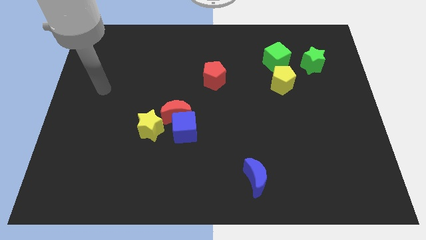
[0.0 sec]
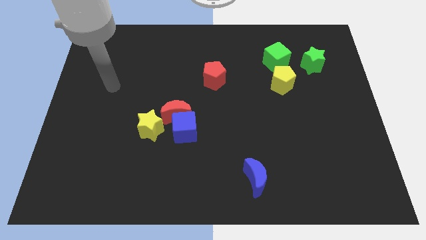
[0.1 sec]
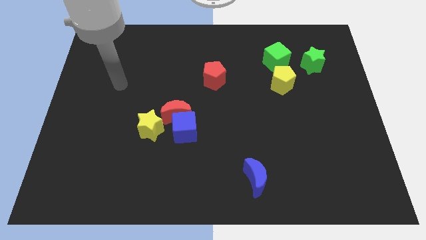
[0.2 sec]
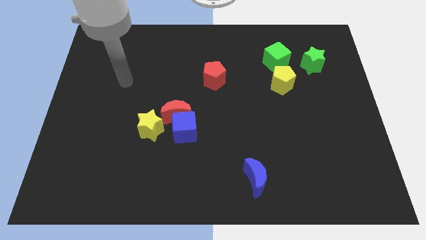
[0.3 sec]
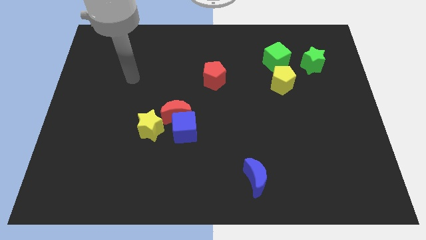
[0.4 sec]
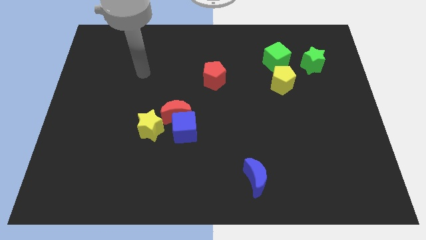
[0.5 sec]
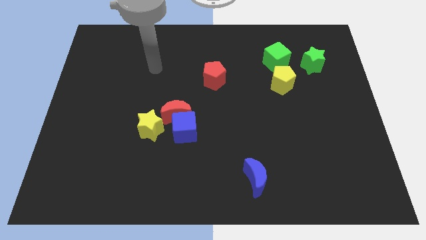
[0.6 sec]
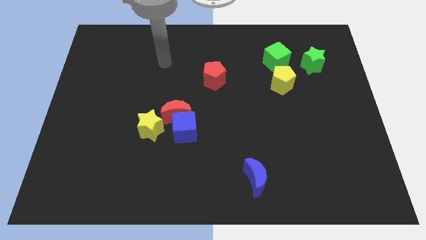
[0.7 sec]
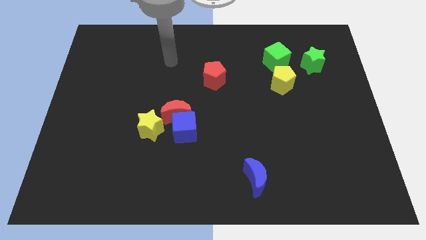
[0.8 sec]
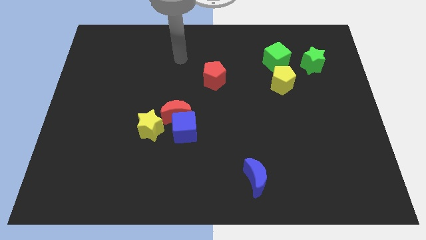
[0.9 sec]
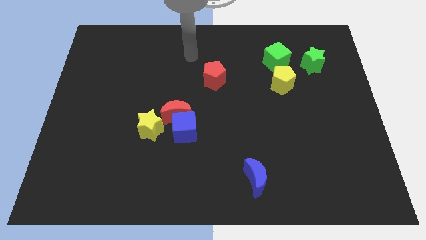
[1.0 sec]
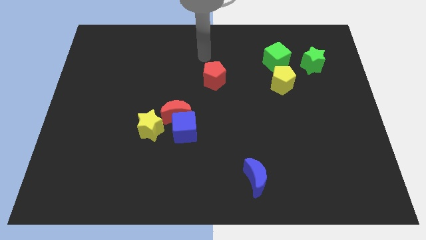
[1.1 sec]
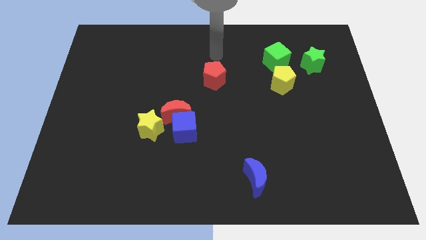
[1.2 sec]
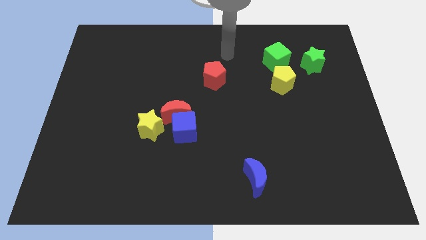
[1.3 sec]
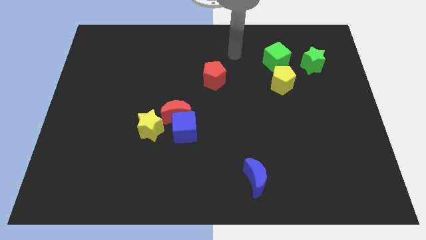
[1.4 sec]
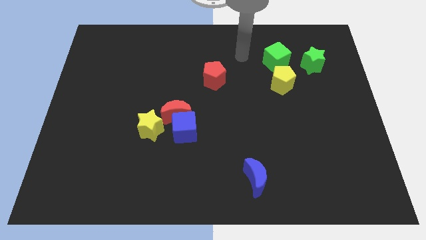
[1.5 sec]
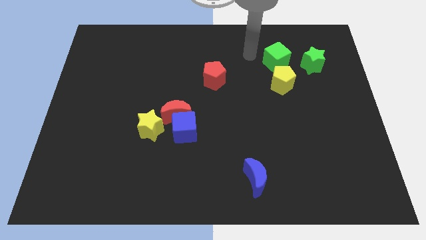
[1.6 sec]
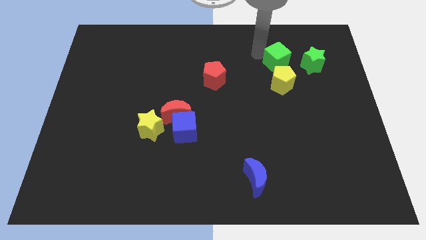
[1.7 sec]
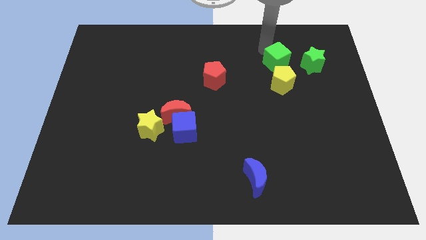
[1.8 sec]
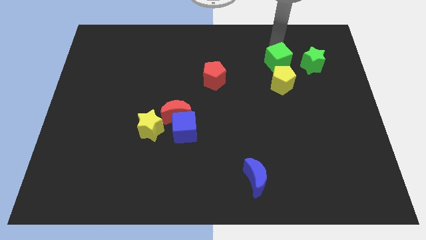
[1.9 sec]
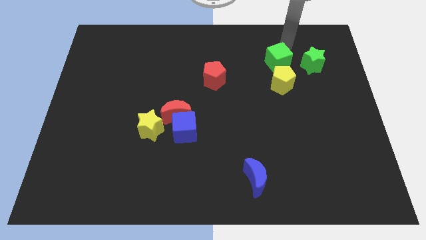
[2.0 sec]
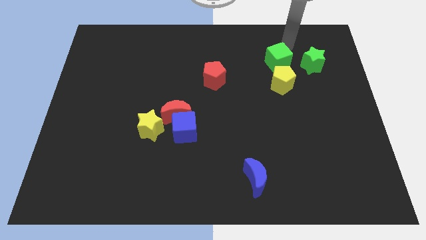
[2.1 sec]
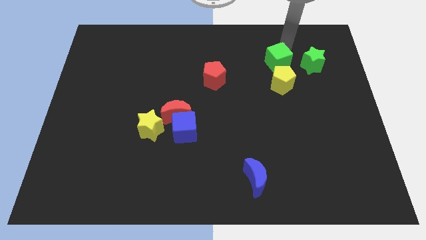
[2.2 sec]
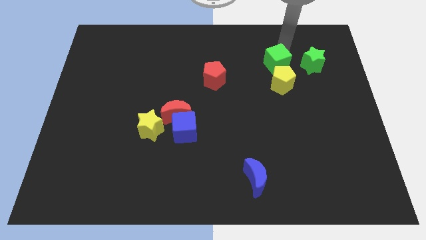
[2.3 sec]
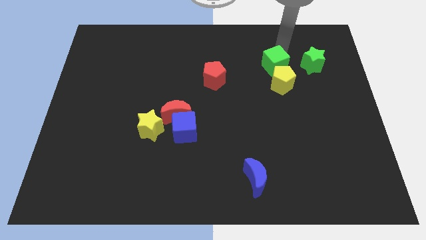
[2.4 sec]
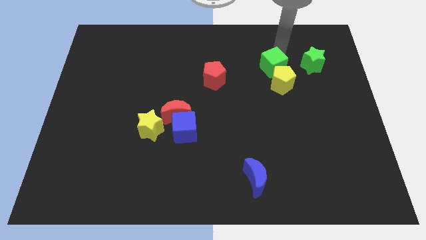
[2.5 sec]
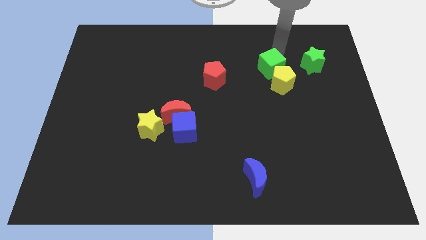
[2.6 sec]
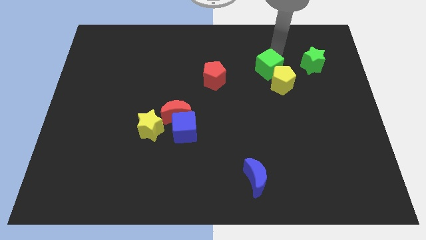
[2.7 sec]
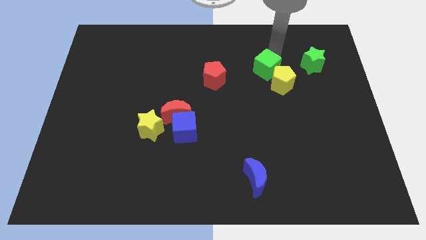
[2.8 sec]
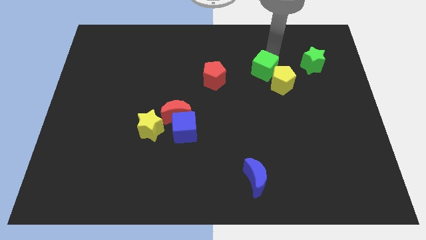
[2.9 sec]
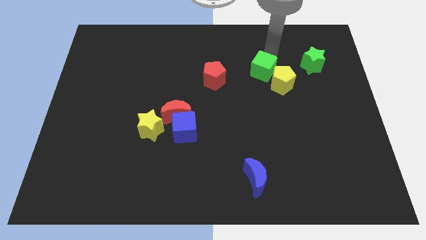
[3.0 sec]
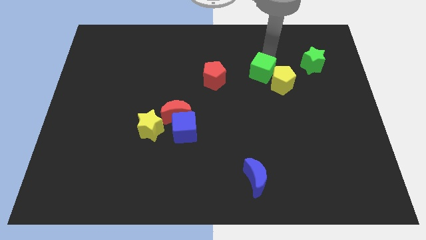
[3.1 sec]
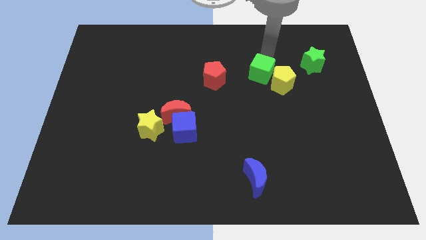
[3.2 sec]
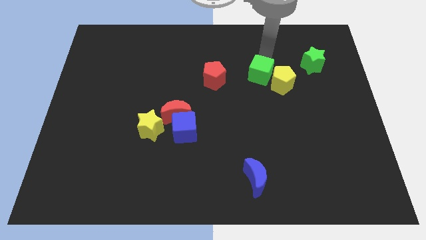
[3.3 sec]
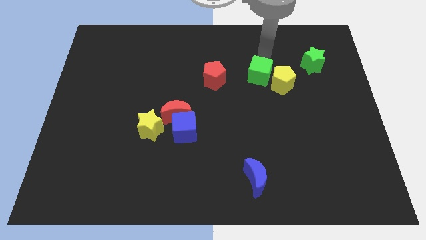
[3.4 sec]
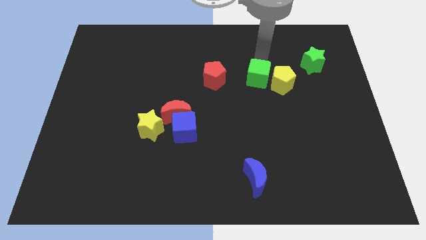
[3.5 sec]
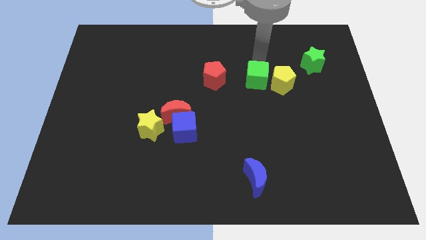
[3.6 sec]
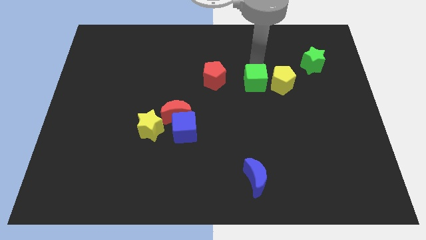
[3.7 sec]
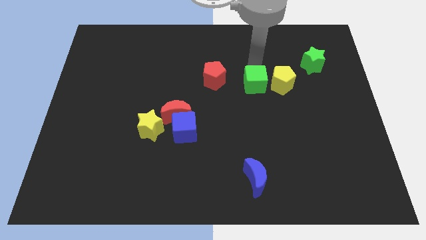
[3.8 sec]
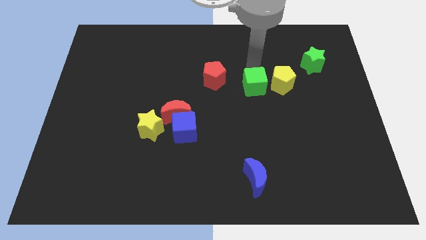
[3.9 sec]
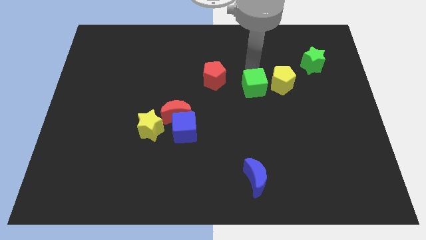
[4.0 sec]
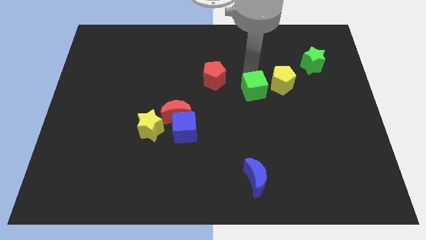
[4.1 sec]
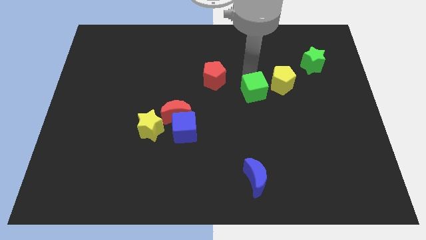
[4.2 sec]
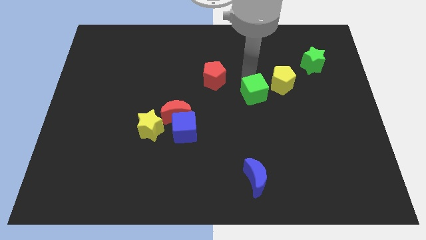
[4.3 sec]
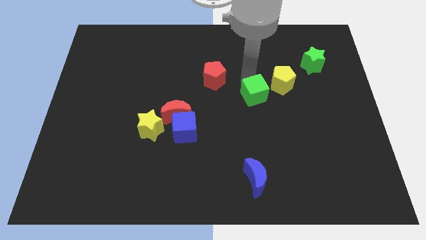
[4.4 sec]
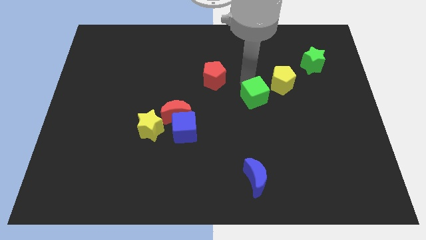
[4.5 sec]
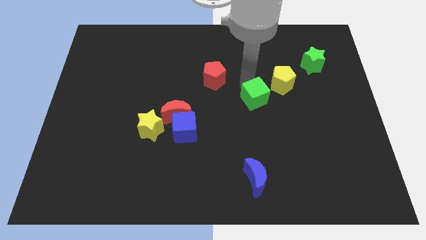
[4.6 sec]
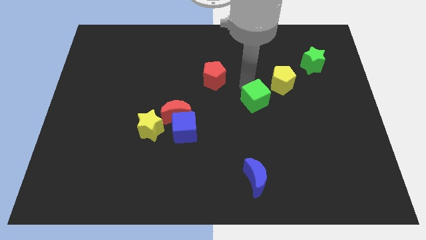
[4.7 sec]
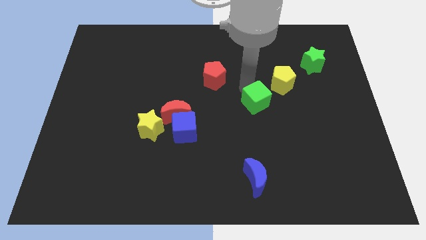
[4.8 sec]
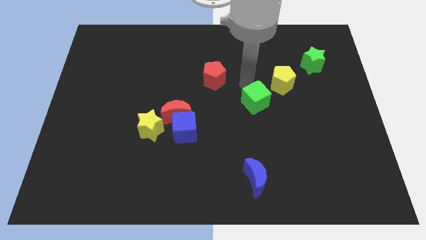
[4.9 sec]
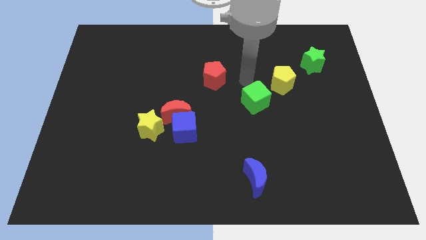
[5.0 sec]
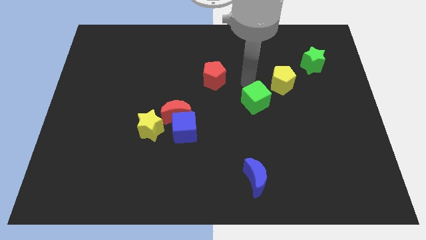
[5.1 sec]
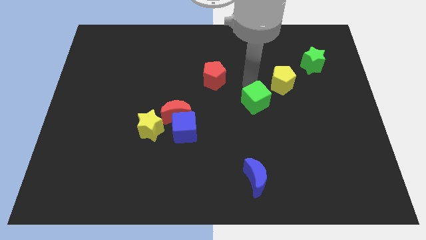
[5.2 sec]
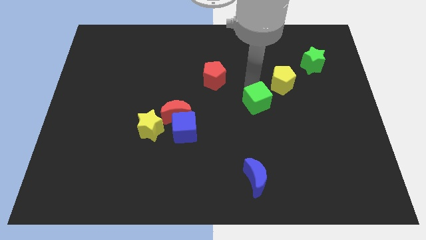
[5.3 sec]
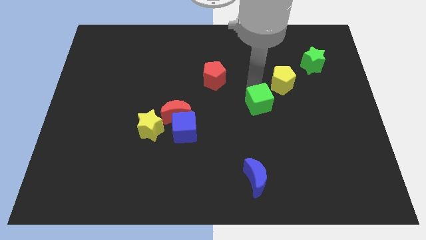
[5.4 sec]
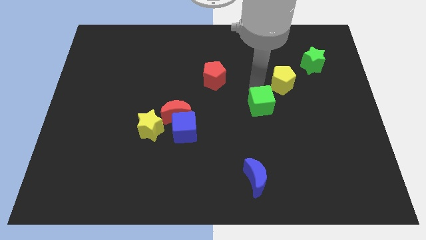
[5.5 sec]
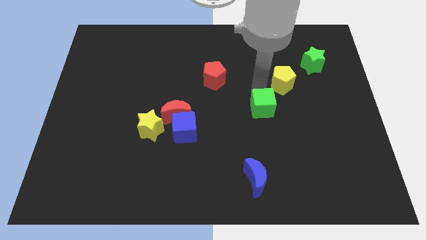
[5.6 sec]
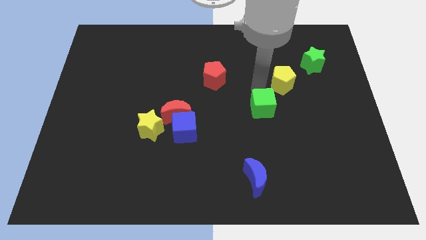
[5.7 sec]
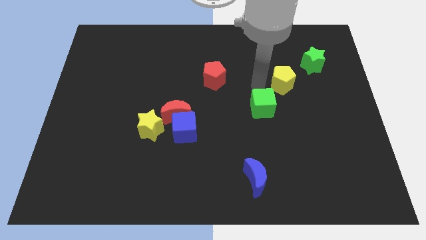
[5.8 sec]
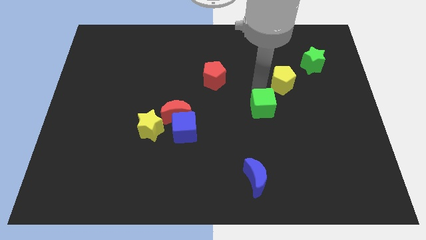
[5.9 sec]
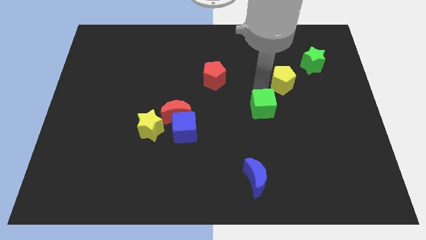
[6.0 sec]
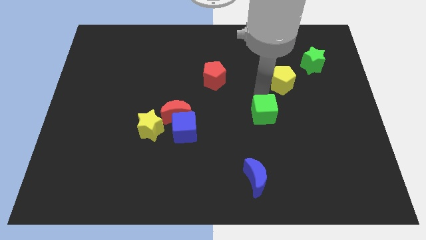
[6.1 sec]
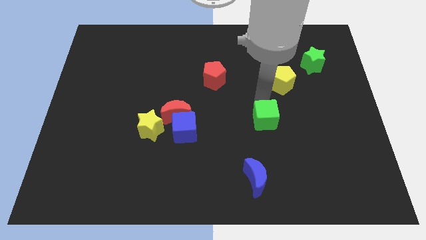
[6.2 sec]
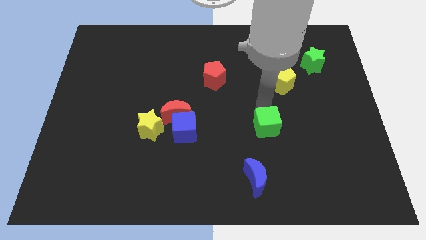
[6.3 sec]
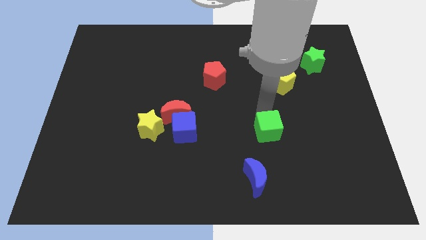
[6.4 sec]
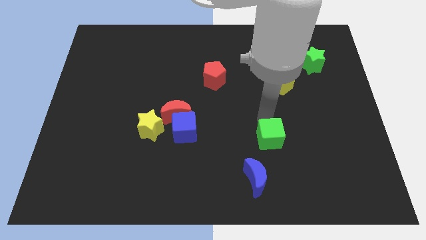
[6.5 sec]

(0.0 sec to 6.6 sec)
push the green cube diagonally up and to the right of the blue moon

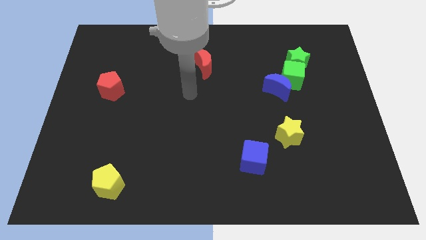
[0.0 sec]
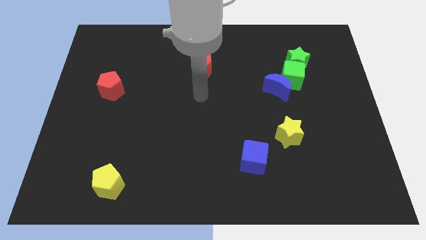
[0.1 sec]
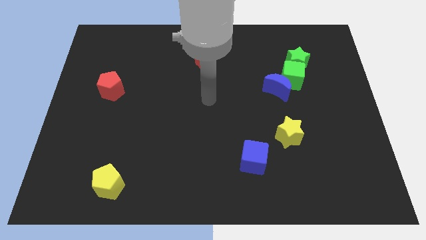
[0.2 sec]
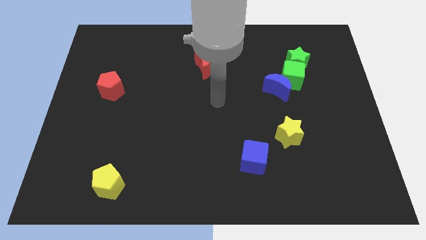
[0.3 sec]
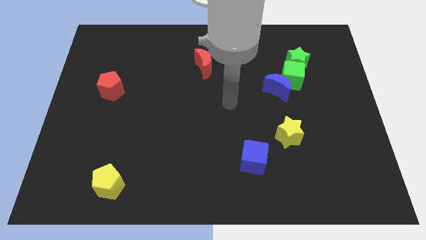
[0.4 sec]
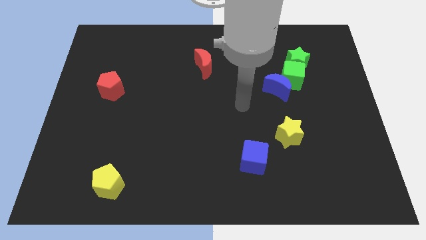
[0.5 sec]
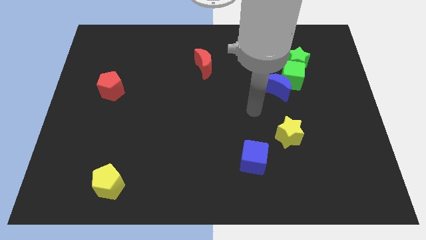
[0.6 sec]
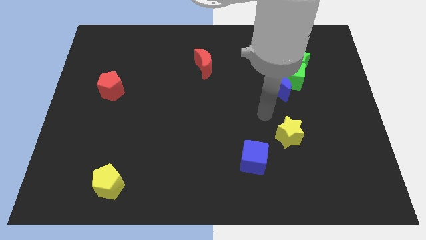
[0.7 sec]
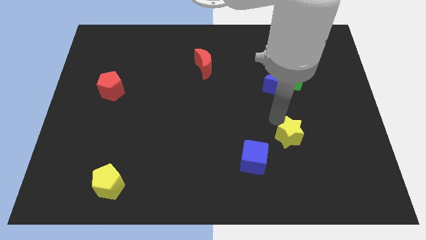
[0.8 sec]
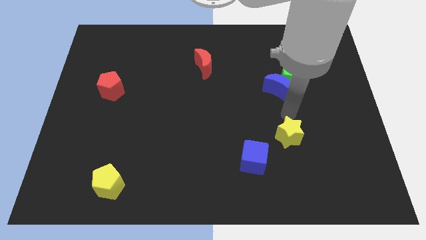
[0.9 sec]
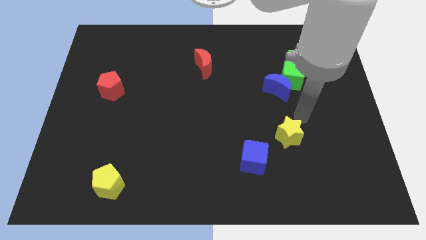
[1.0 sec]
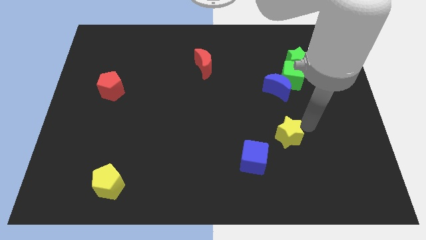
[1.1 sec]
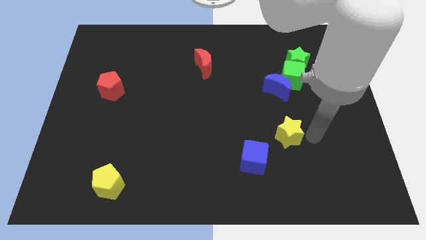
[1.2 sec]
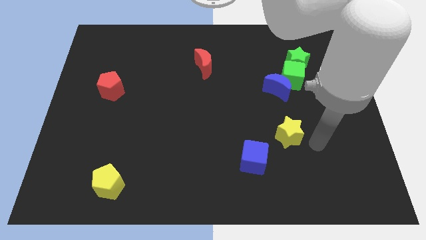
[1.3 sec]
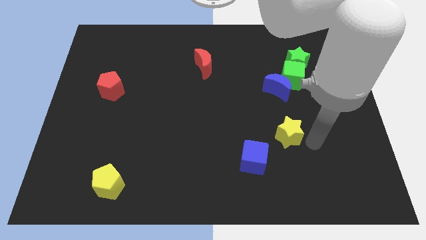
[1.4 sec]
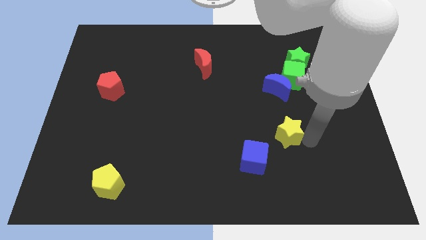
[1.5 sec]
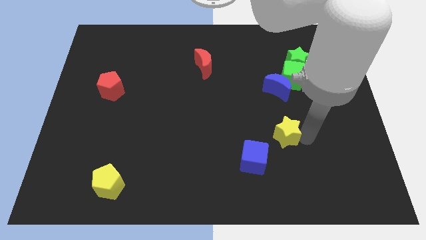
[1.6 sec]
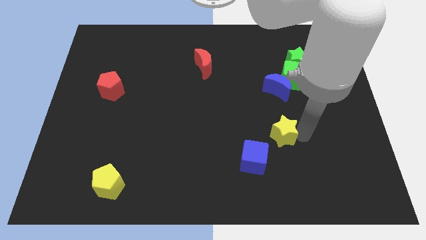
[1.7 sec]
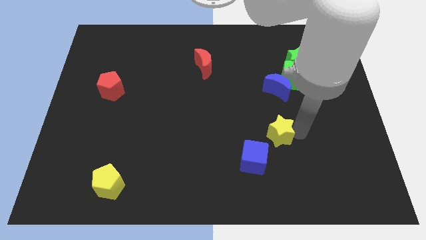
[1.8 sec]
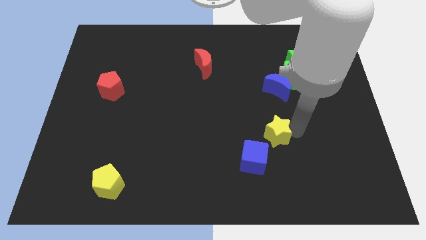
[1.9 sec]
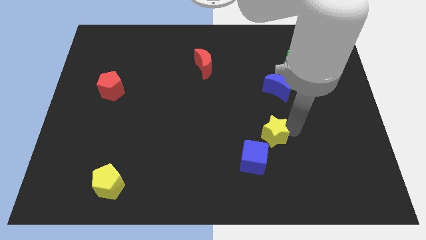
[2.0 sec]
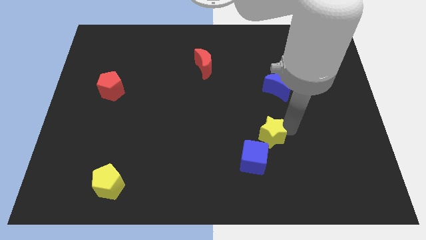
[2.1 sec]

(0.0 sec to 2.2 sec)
move the yellow star to the top of the blue cube
